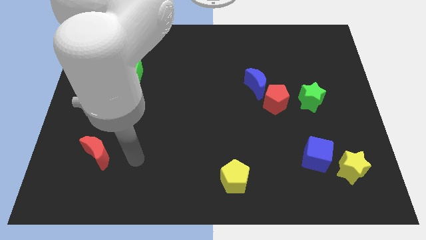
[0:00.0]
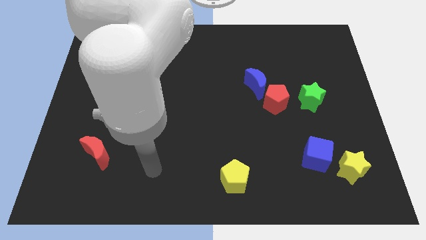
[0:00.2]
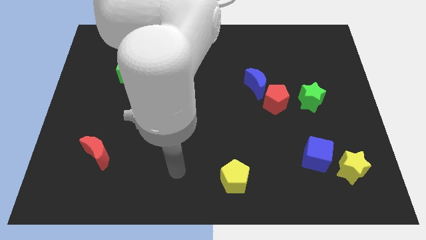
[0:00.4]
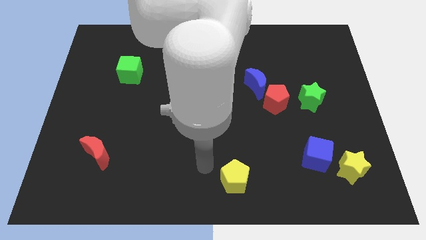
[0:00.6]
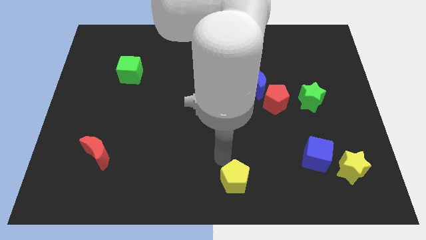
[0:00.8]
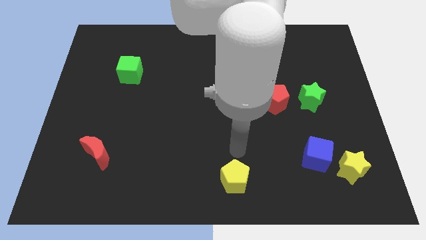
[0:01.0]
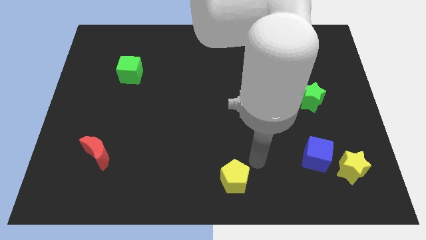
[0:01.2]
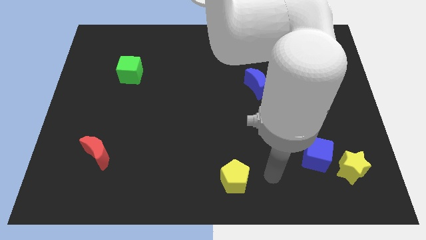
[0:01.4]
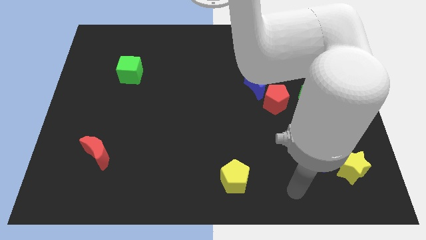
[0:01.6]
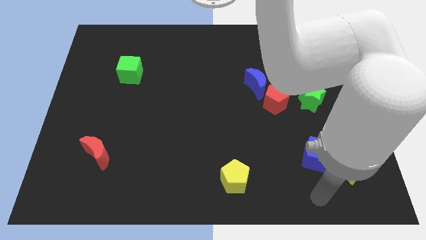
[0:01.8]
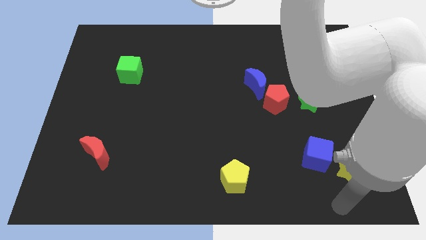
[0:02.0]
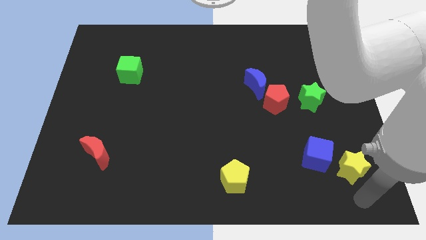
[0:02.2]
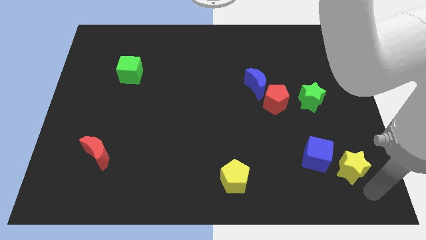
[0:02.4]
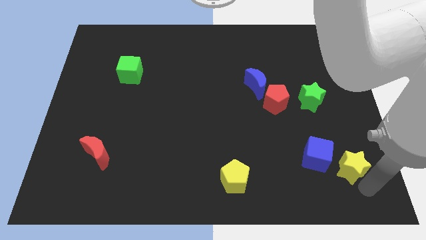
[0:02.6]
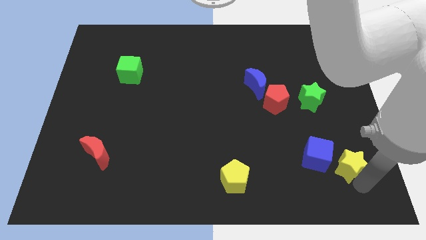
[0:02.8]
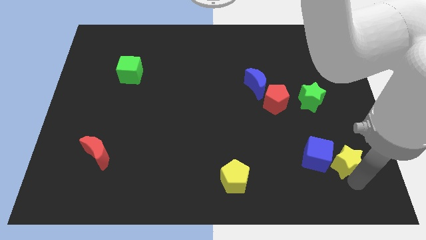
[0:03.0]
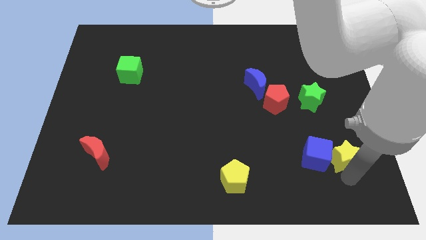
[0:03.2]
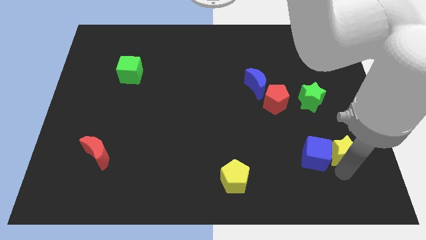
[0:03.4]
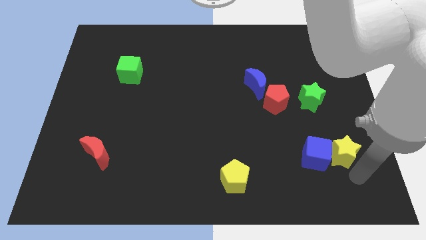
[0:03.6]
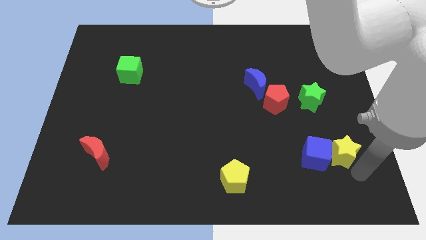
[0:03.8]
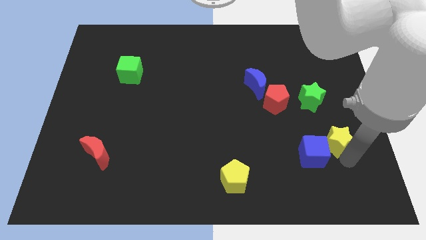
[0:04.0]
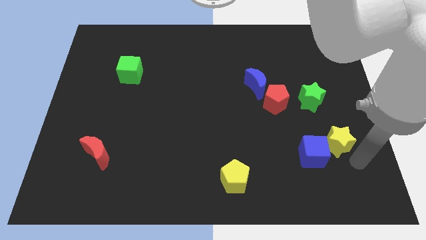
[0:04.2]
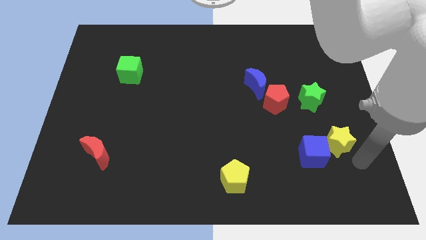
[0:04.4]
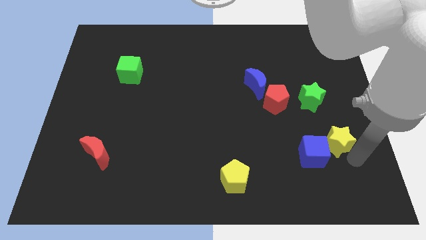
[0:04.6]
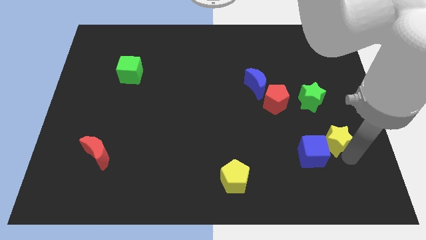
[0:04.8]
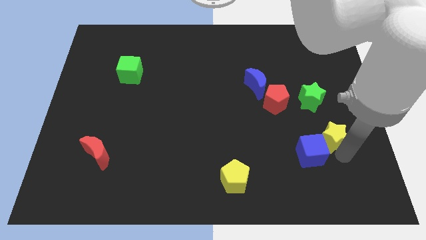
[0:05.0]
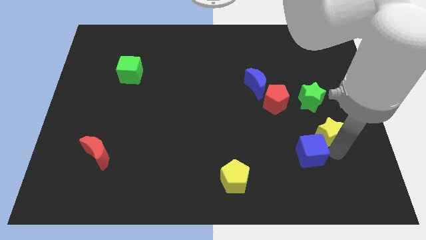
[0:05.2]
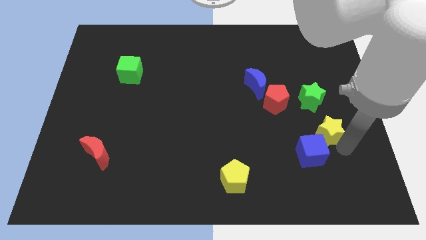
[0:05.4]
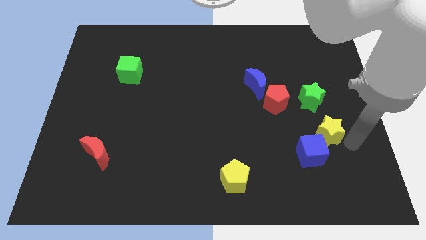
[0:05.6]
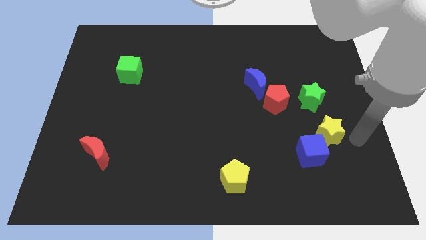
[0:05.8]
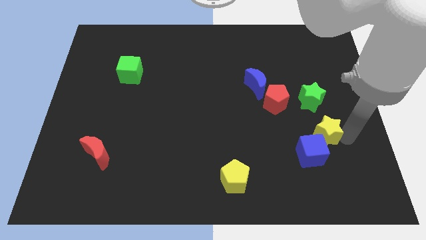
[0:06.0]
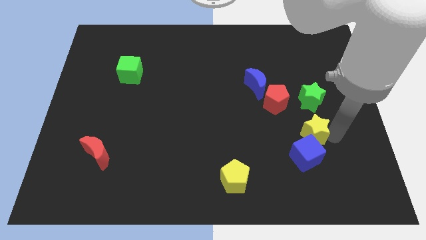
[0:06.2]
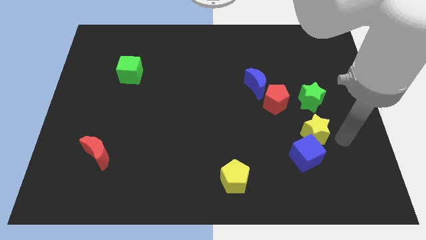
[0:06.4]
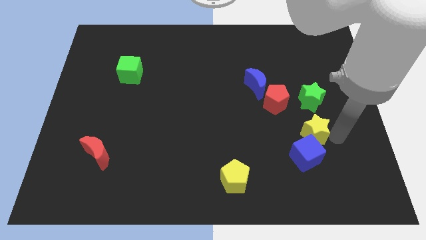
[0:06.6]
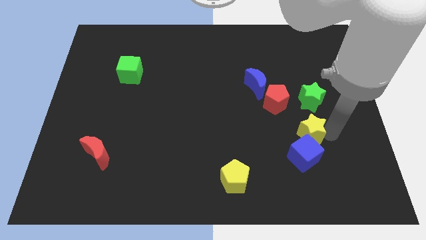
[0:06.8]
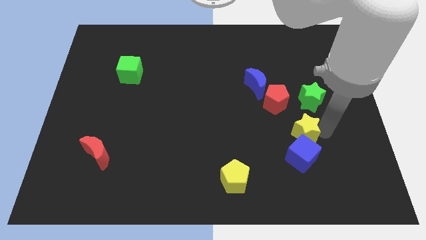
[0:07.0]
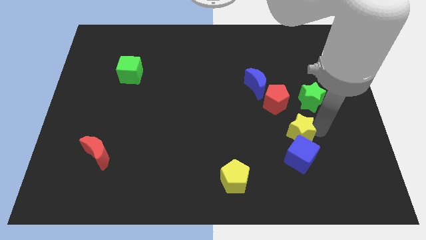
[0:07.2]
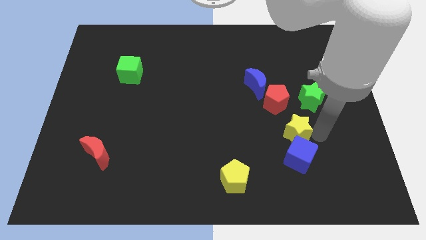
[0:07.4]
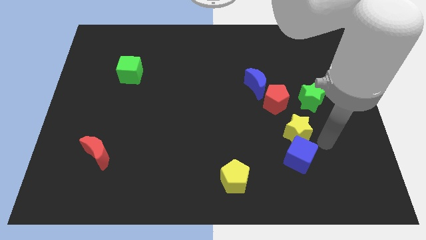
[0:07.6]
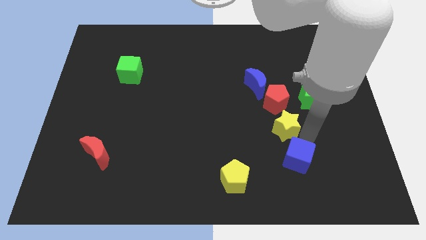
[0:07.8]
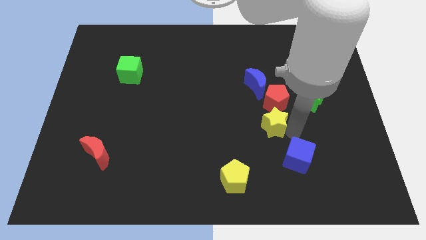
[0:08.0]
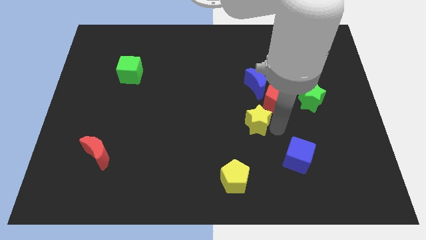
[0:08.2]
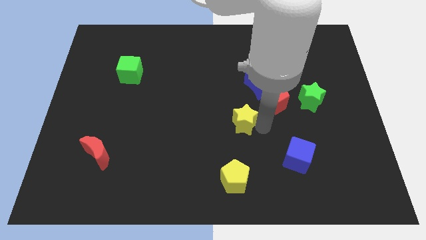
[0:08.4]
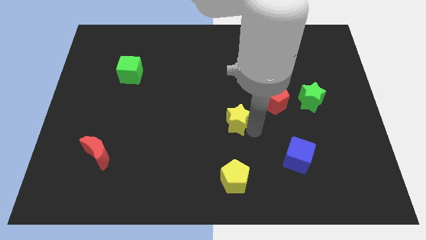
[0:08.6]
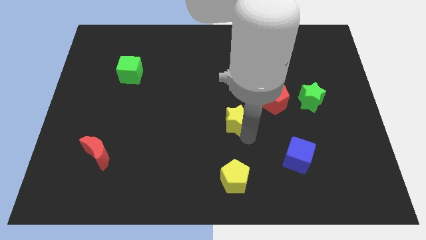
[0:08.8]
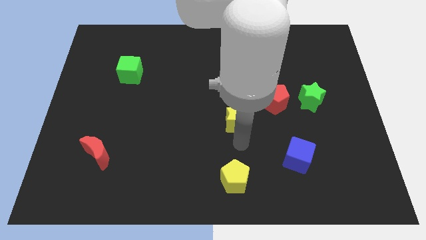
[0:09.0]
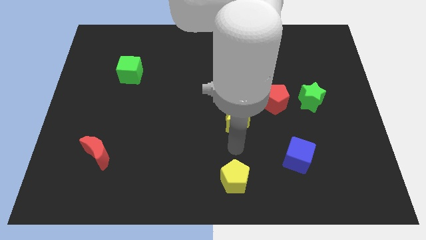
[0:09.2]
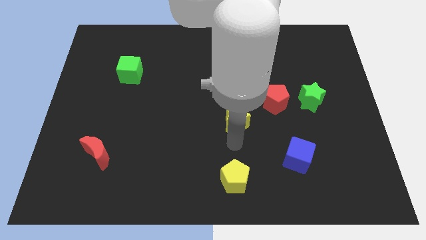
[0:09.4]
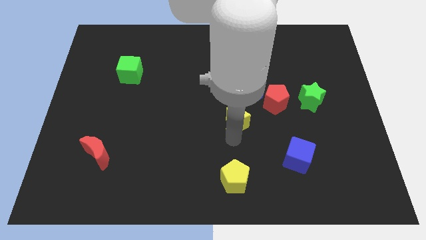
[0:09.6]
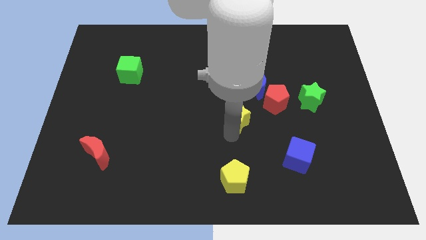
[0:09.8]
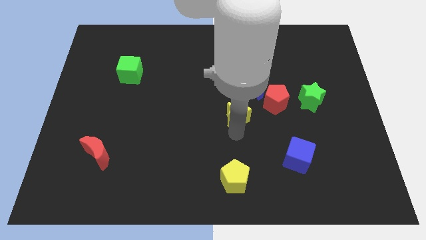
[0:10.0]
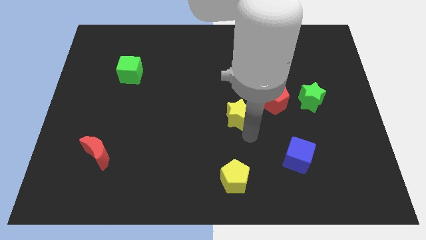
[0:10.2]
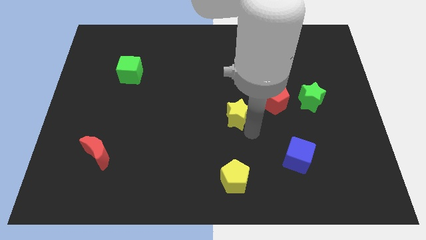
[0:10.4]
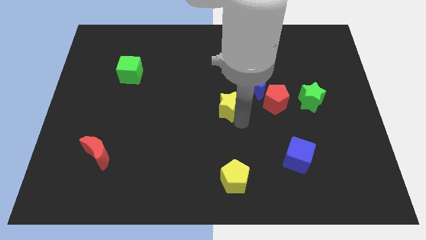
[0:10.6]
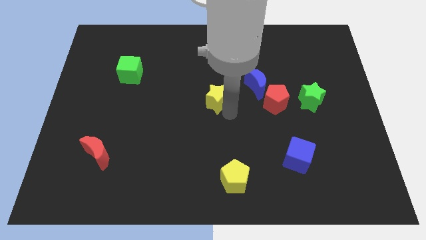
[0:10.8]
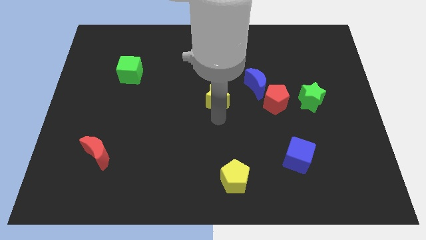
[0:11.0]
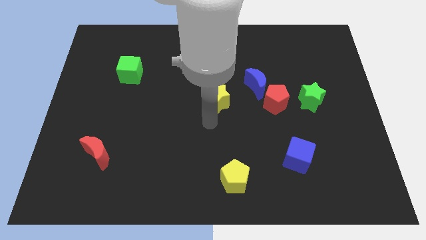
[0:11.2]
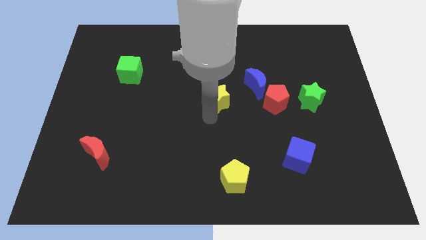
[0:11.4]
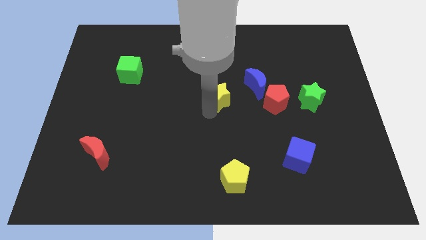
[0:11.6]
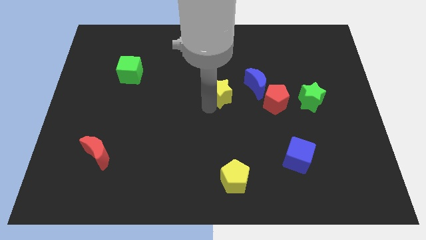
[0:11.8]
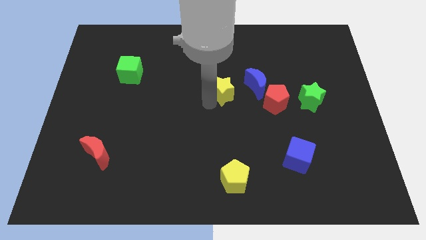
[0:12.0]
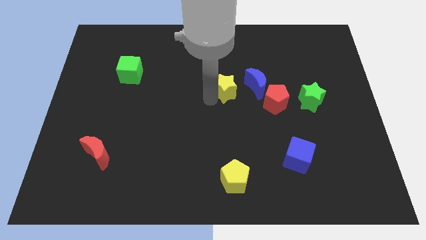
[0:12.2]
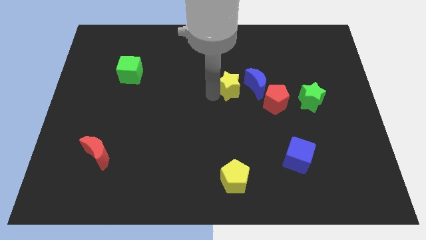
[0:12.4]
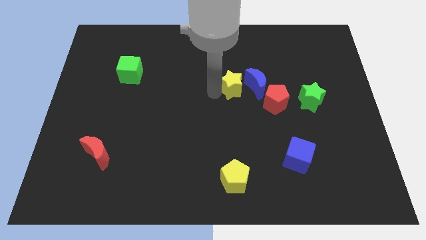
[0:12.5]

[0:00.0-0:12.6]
put the yellow star diagonally up and to the left of the blue moon
